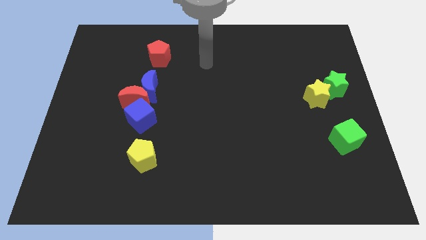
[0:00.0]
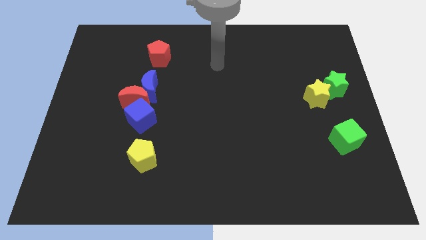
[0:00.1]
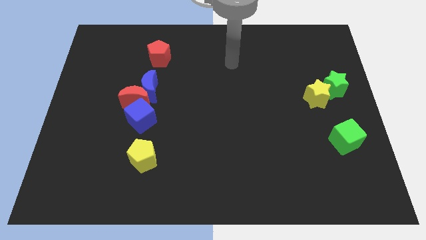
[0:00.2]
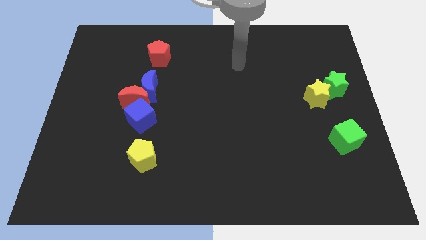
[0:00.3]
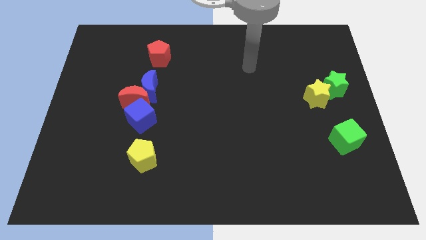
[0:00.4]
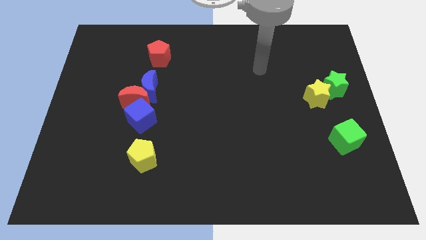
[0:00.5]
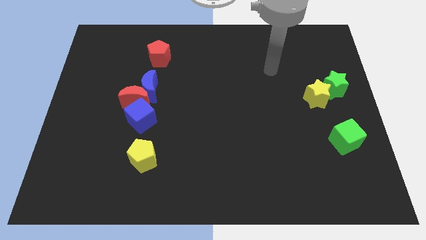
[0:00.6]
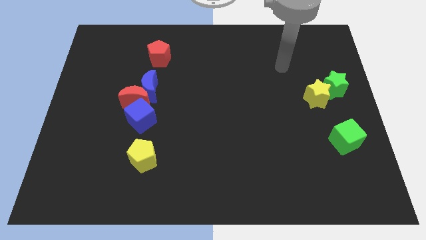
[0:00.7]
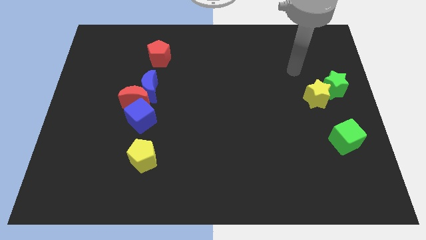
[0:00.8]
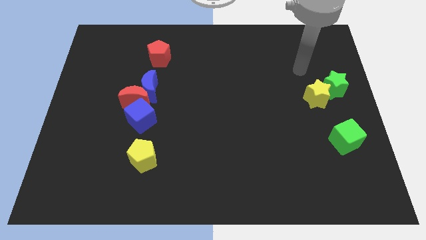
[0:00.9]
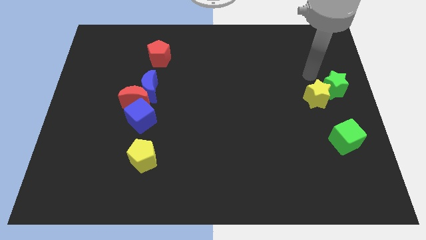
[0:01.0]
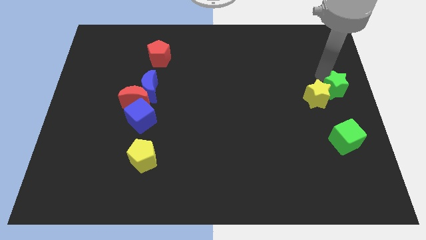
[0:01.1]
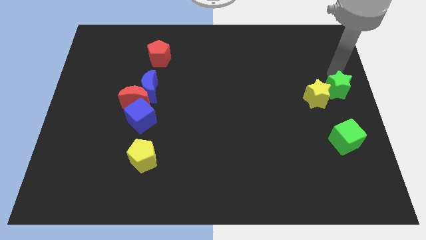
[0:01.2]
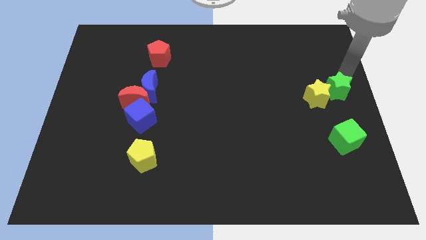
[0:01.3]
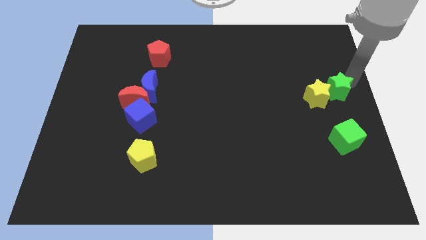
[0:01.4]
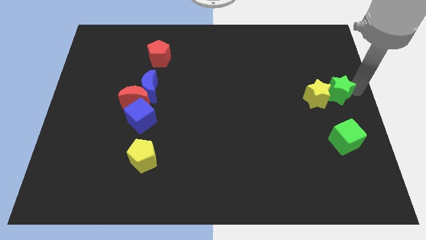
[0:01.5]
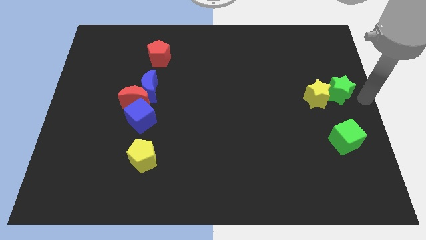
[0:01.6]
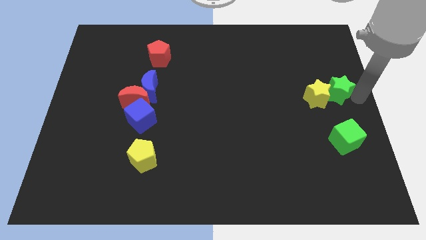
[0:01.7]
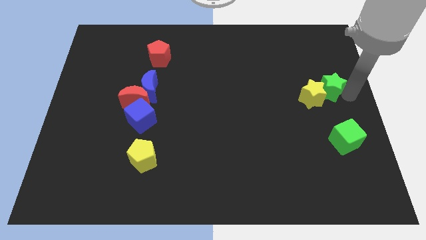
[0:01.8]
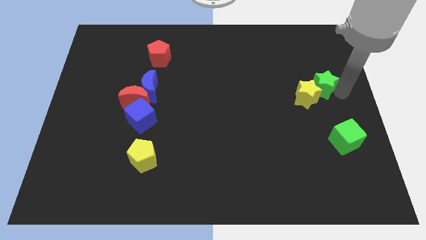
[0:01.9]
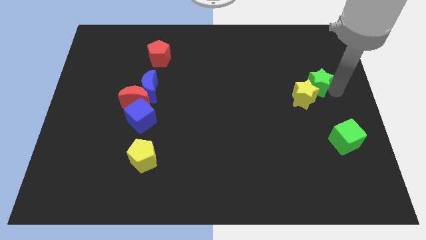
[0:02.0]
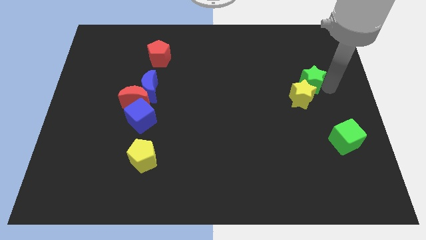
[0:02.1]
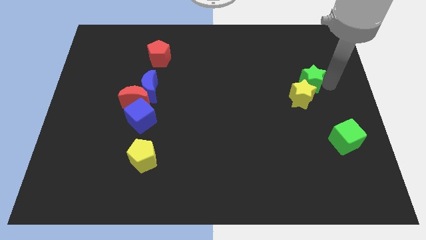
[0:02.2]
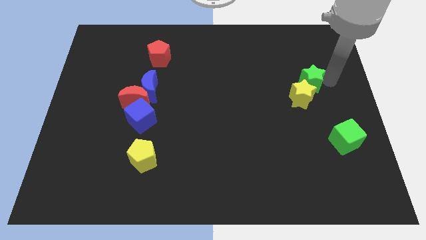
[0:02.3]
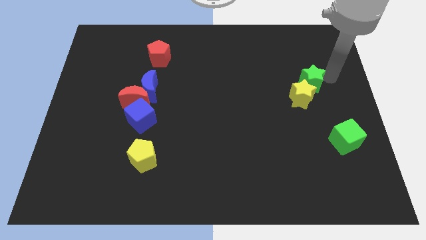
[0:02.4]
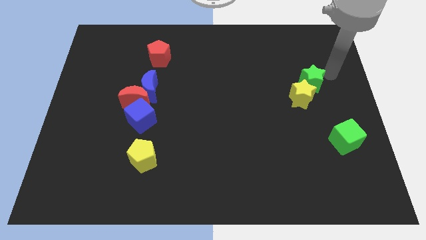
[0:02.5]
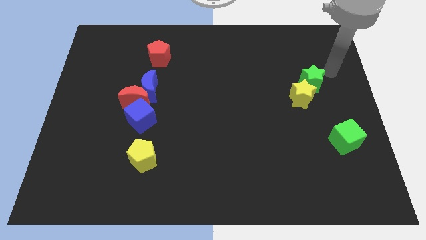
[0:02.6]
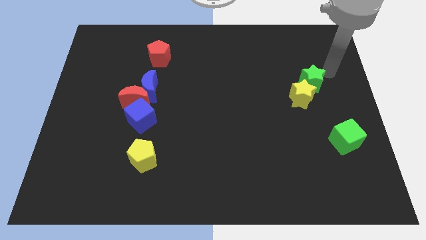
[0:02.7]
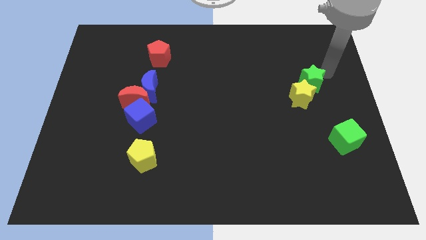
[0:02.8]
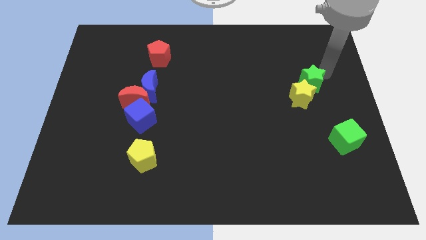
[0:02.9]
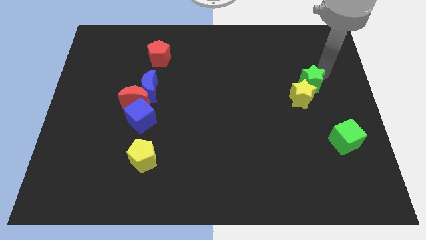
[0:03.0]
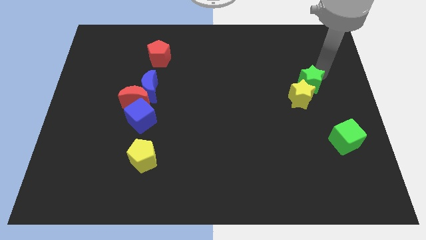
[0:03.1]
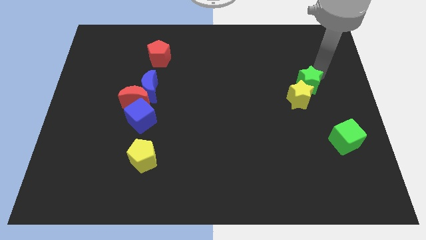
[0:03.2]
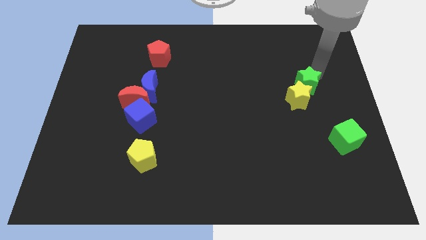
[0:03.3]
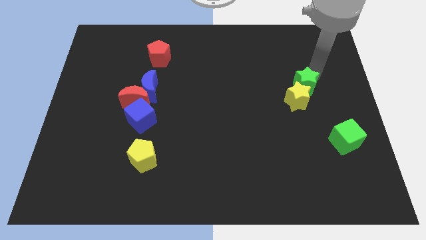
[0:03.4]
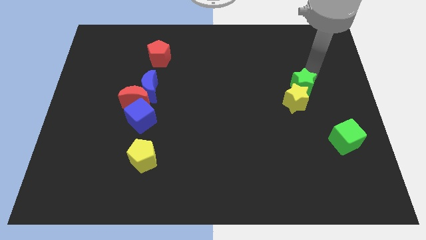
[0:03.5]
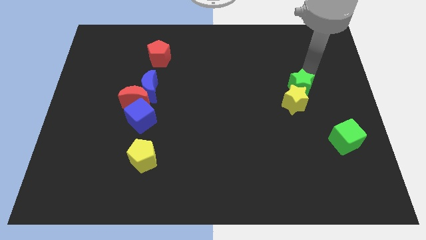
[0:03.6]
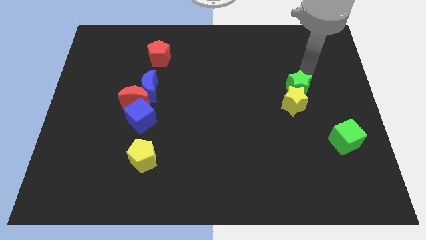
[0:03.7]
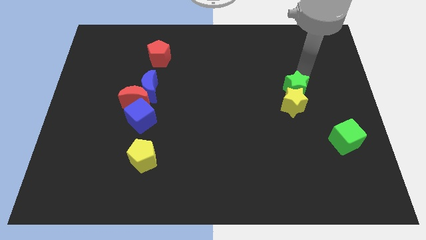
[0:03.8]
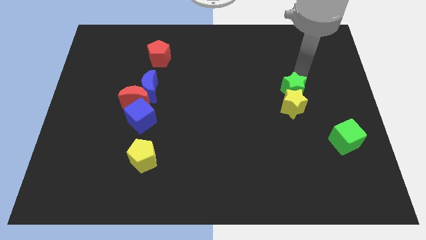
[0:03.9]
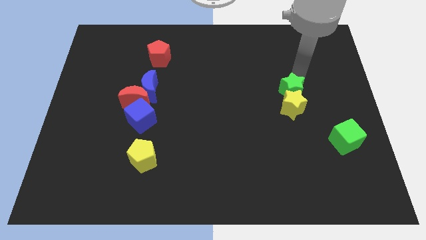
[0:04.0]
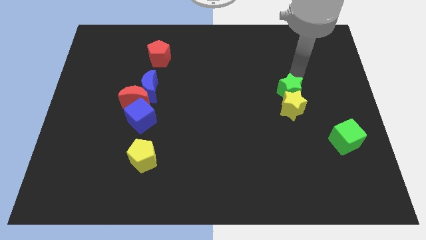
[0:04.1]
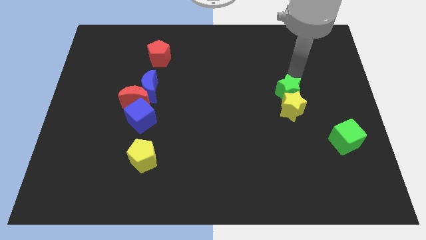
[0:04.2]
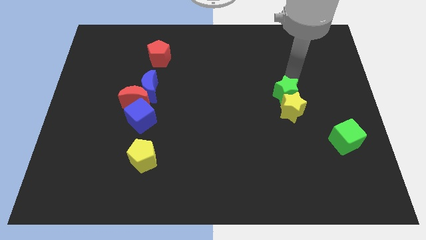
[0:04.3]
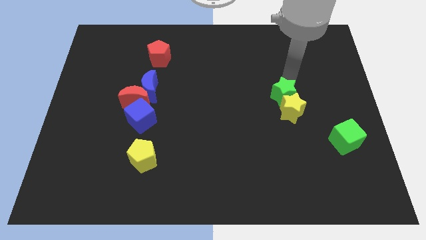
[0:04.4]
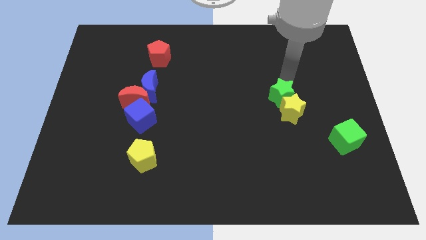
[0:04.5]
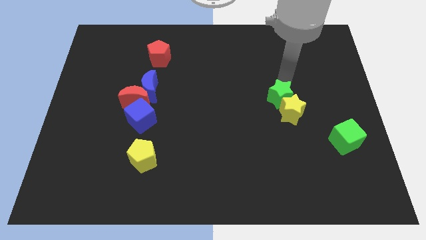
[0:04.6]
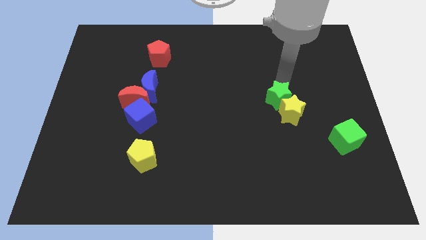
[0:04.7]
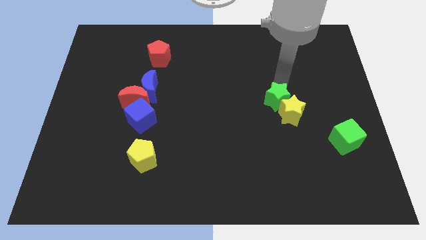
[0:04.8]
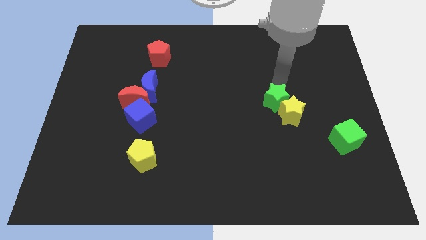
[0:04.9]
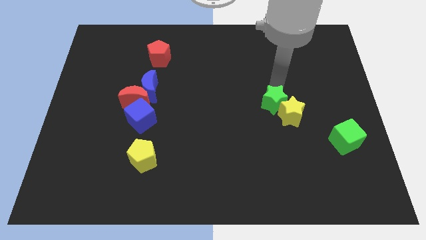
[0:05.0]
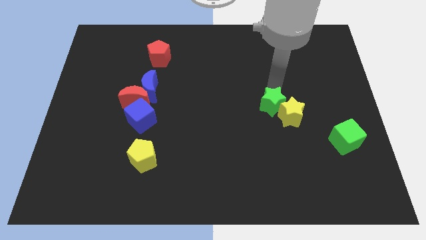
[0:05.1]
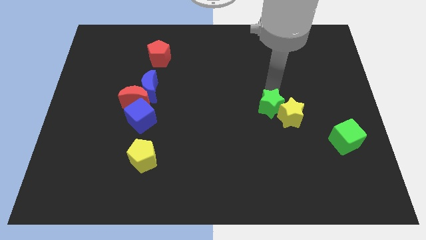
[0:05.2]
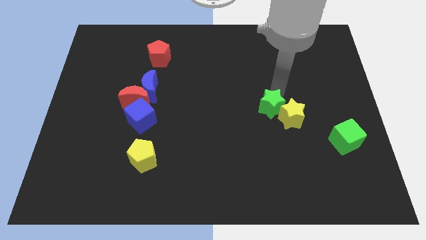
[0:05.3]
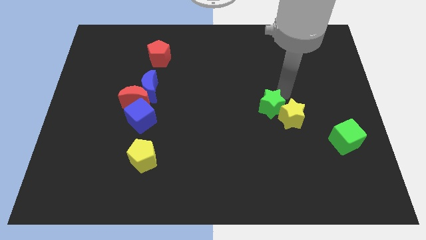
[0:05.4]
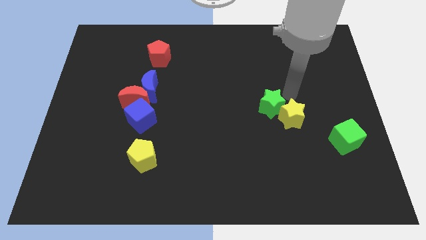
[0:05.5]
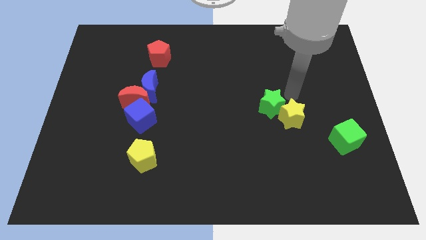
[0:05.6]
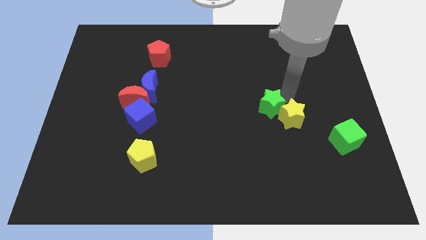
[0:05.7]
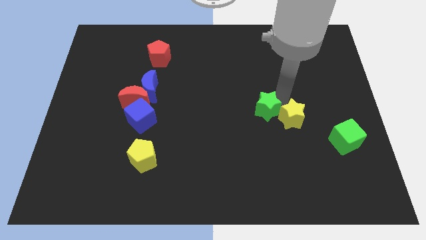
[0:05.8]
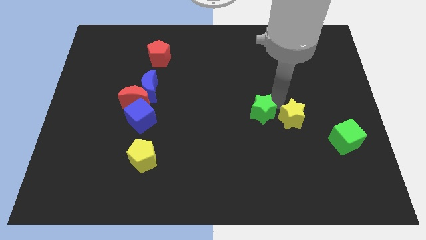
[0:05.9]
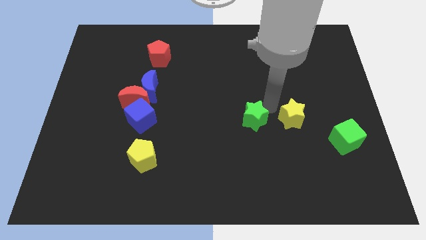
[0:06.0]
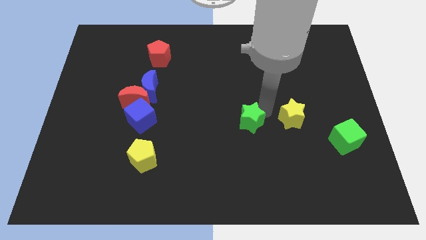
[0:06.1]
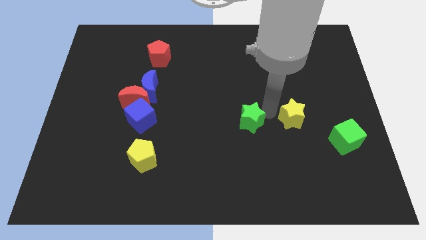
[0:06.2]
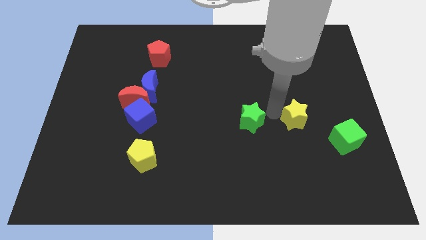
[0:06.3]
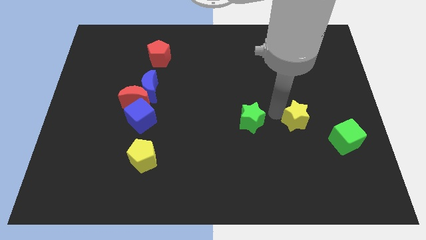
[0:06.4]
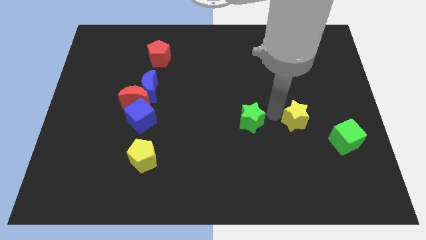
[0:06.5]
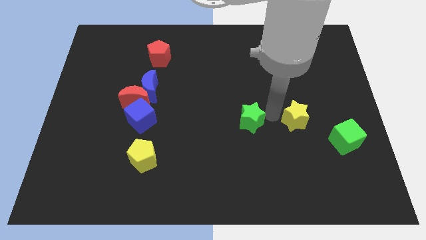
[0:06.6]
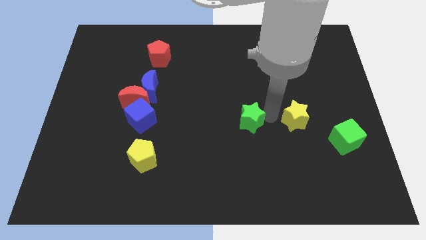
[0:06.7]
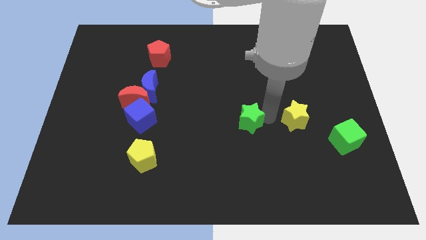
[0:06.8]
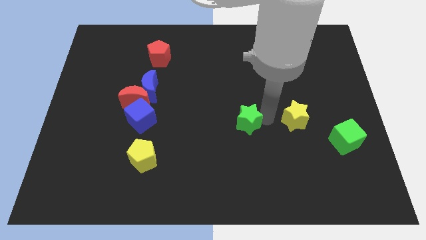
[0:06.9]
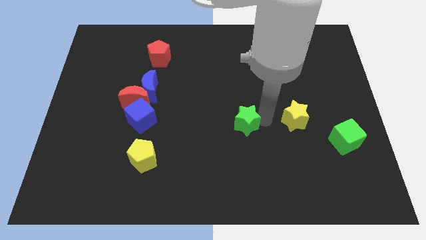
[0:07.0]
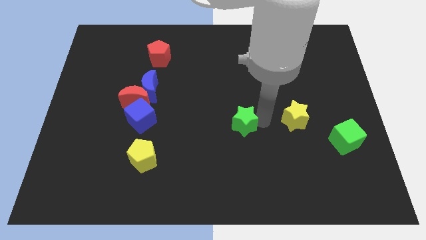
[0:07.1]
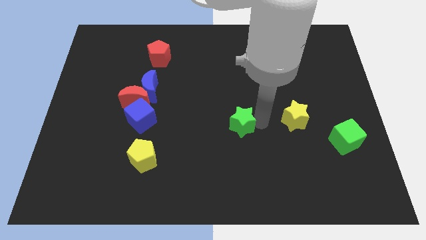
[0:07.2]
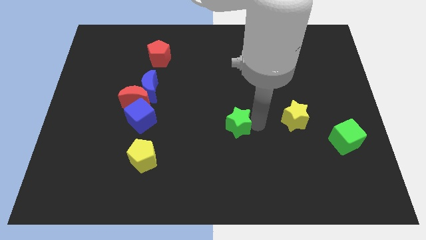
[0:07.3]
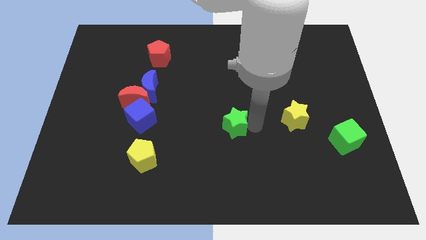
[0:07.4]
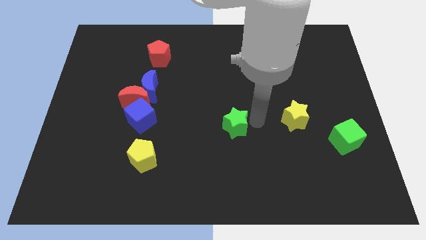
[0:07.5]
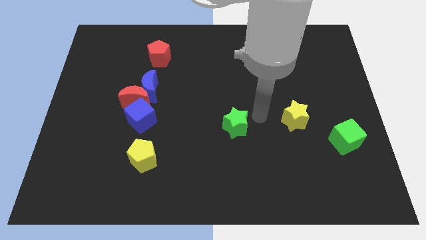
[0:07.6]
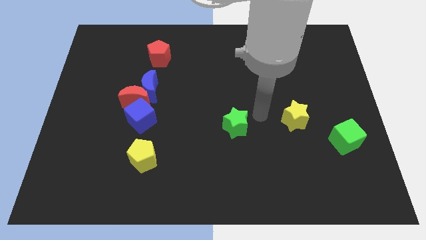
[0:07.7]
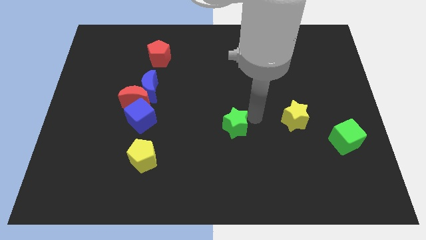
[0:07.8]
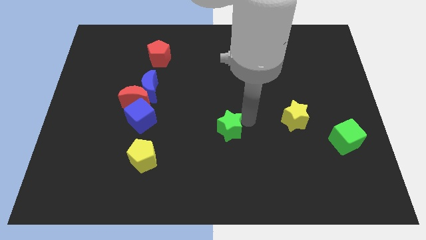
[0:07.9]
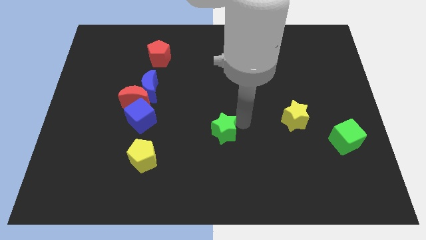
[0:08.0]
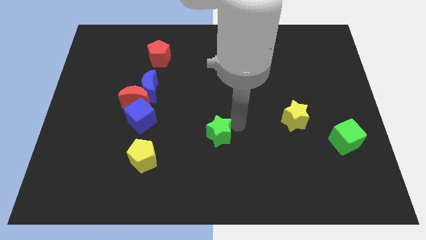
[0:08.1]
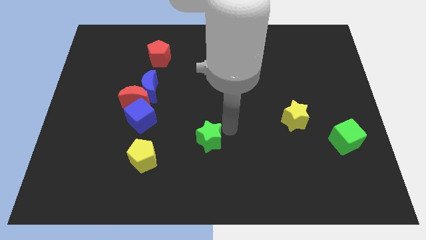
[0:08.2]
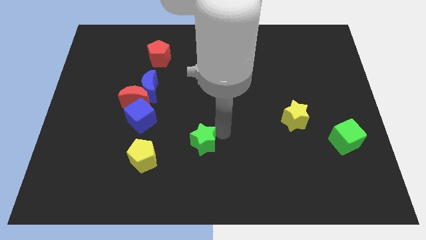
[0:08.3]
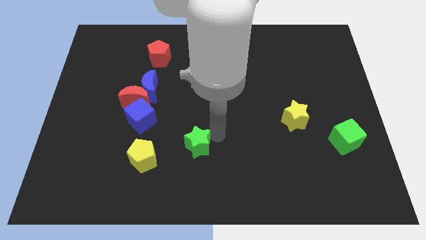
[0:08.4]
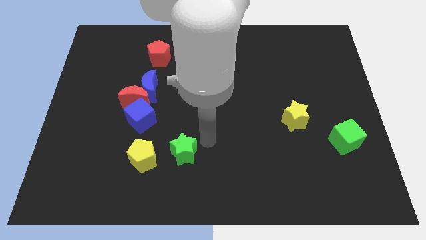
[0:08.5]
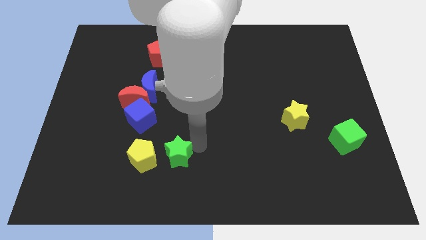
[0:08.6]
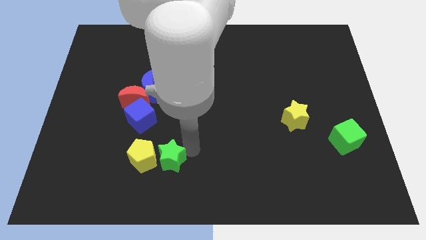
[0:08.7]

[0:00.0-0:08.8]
put the green star towards the yellow pentagon
